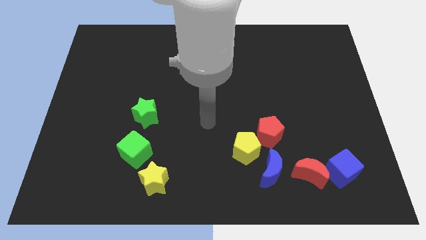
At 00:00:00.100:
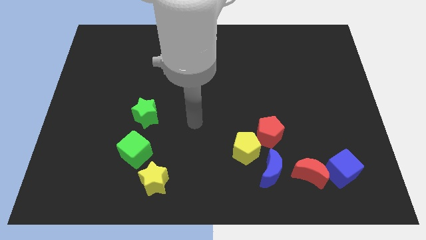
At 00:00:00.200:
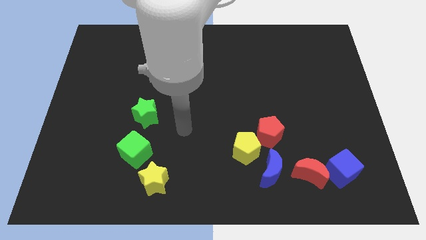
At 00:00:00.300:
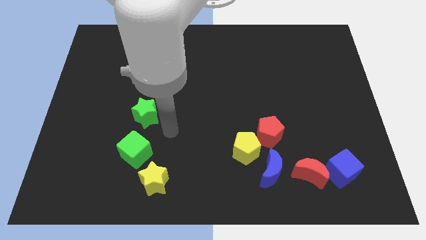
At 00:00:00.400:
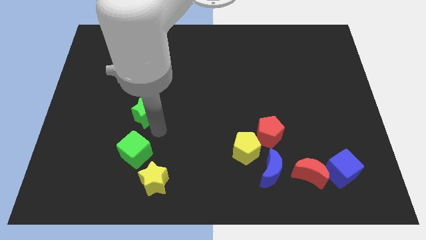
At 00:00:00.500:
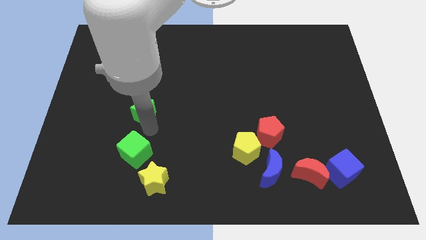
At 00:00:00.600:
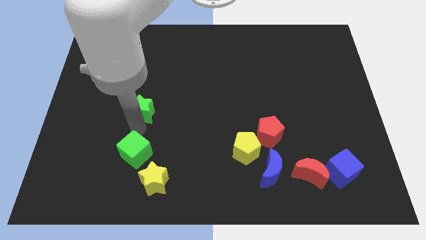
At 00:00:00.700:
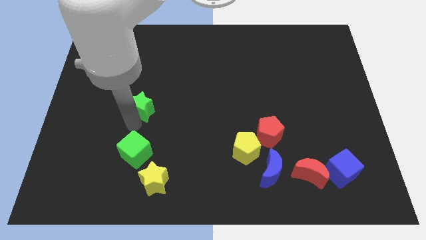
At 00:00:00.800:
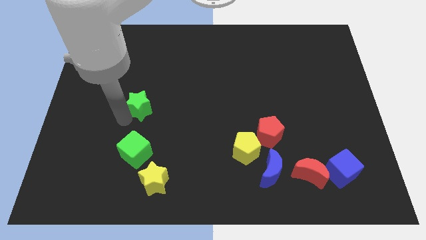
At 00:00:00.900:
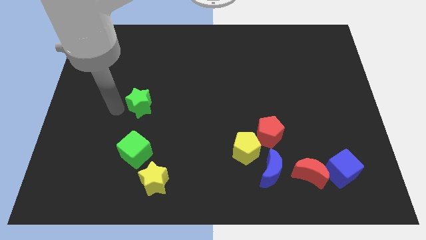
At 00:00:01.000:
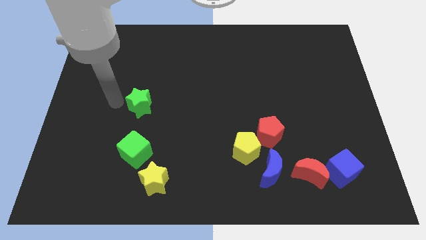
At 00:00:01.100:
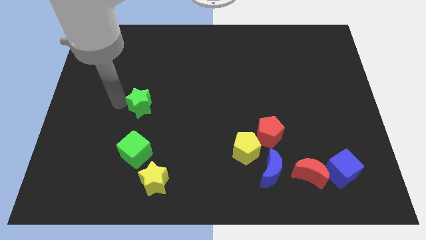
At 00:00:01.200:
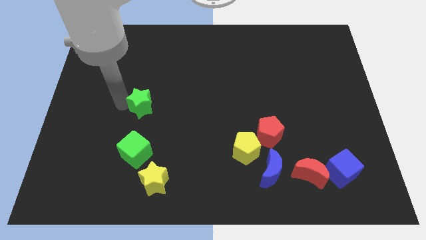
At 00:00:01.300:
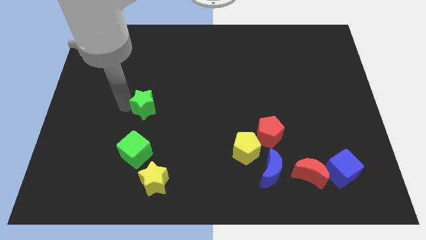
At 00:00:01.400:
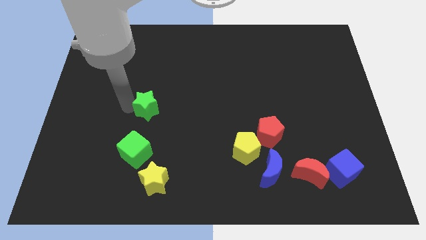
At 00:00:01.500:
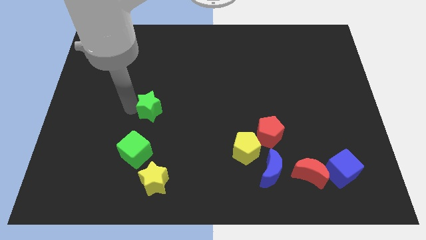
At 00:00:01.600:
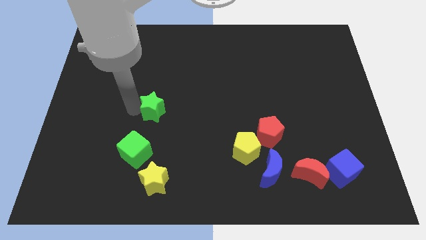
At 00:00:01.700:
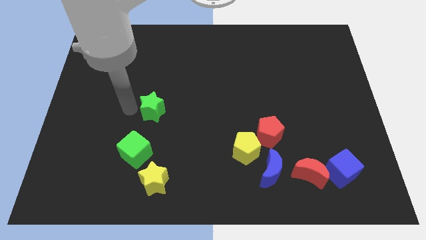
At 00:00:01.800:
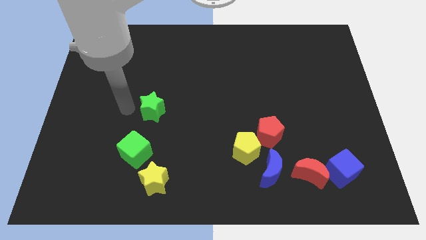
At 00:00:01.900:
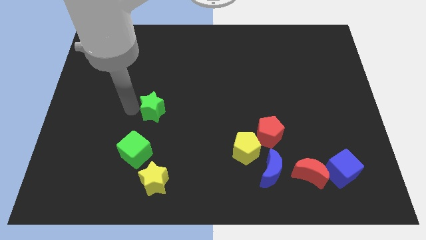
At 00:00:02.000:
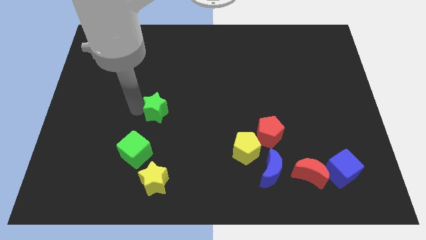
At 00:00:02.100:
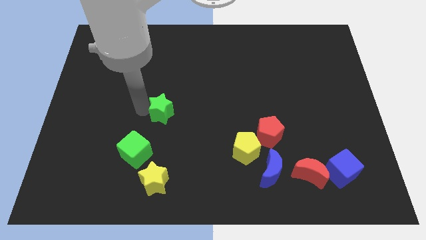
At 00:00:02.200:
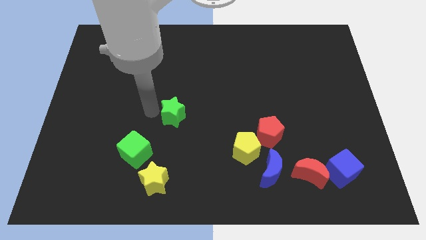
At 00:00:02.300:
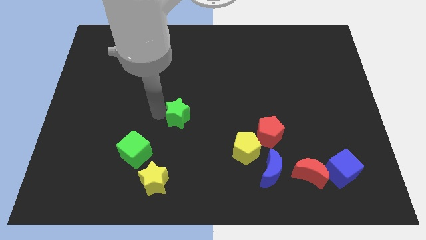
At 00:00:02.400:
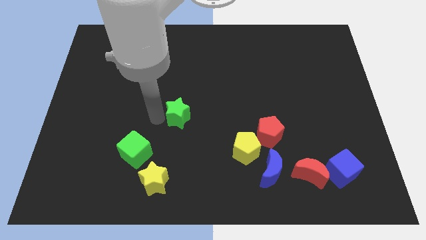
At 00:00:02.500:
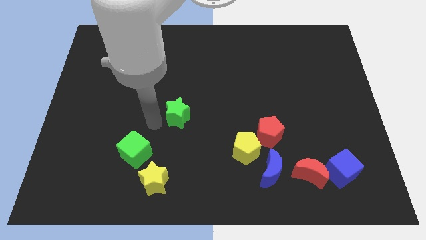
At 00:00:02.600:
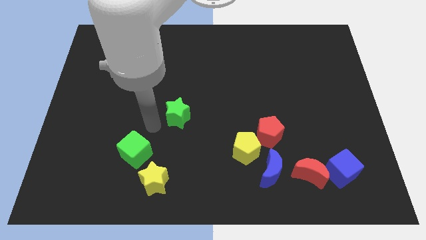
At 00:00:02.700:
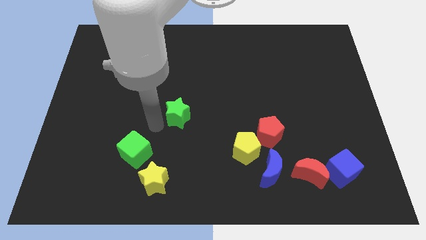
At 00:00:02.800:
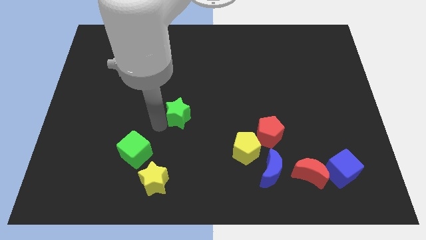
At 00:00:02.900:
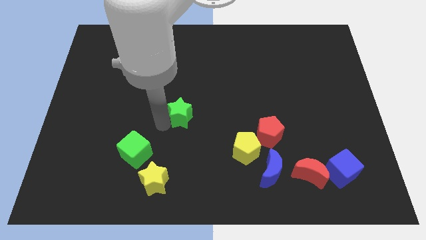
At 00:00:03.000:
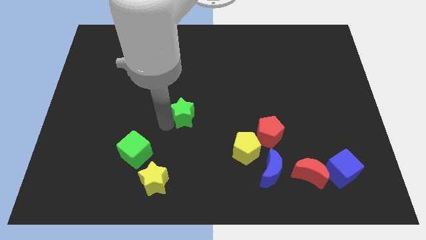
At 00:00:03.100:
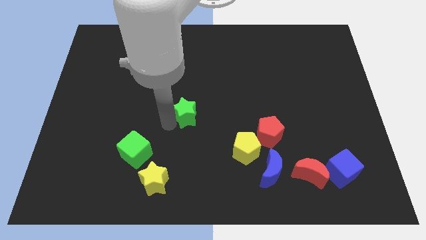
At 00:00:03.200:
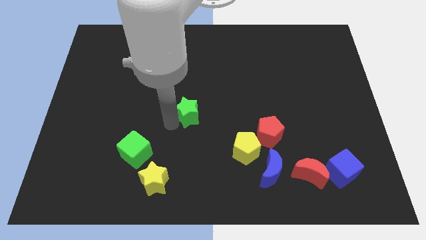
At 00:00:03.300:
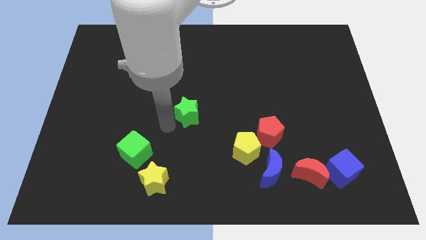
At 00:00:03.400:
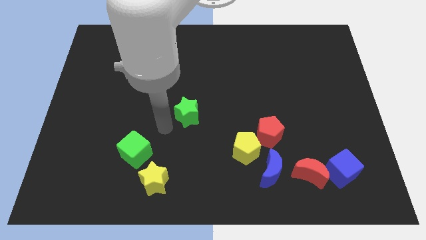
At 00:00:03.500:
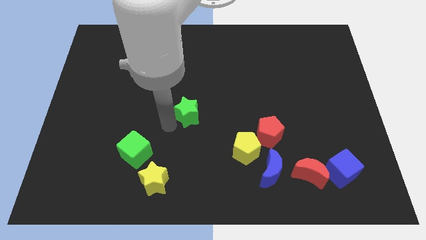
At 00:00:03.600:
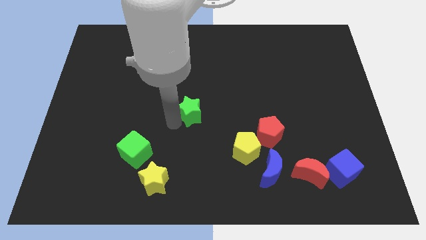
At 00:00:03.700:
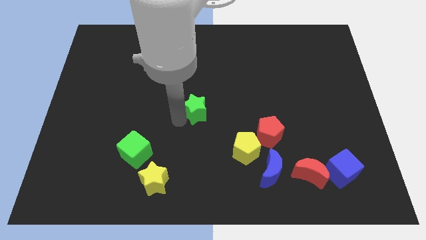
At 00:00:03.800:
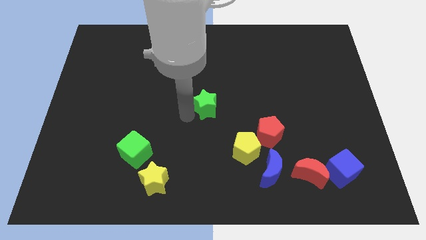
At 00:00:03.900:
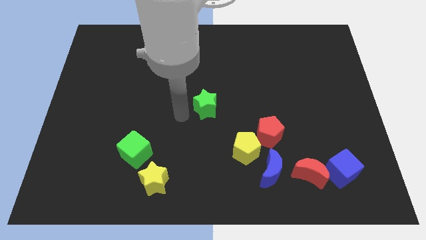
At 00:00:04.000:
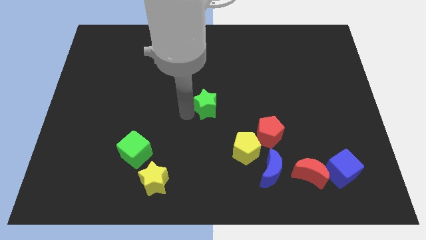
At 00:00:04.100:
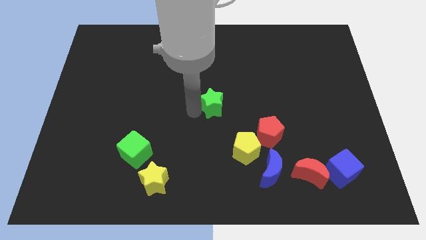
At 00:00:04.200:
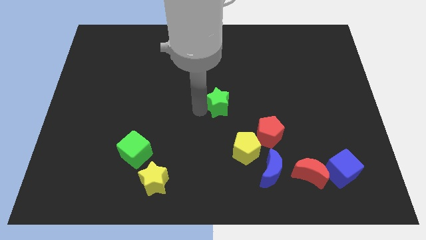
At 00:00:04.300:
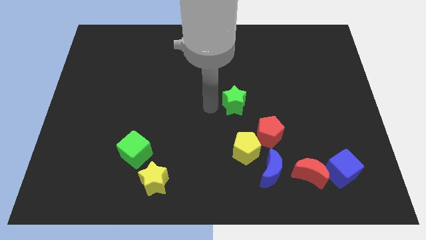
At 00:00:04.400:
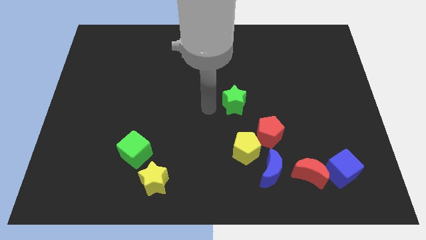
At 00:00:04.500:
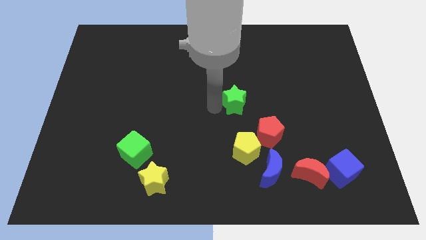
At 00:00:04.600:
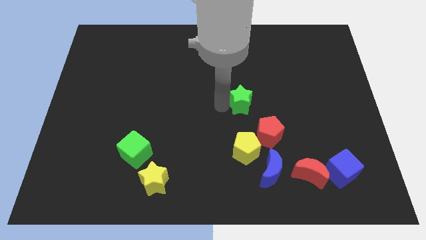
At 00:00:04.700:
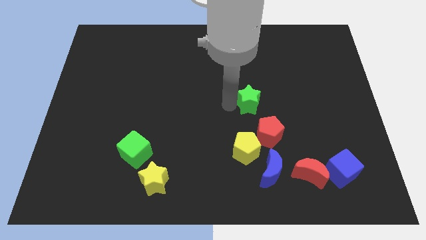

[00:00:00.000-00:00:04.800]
move the green star to the top side of the red pentagon

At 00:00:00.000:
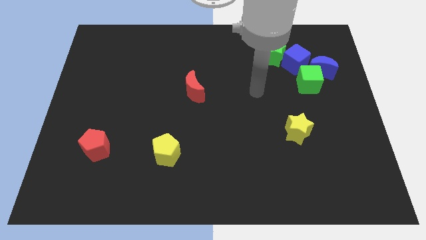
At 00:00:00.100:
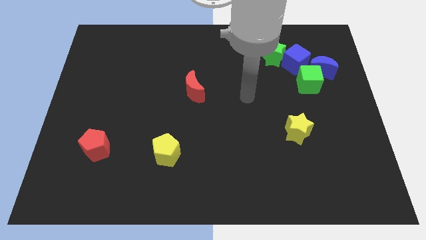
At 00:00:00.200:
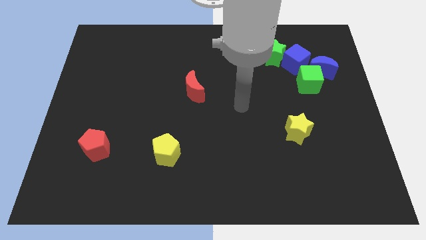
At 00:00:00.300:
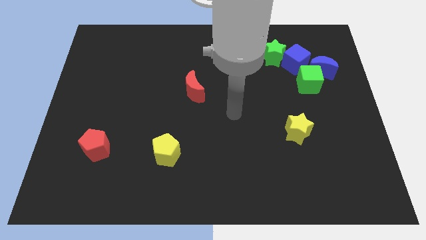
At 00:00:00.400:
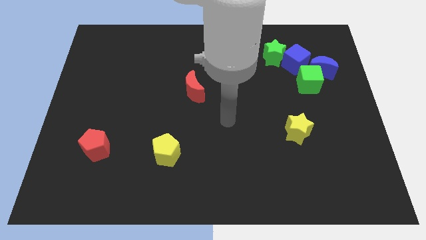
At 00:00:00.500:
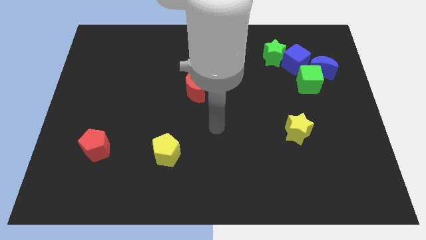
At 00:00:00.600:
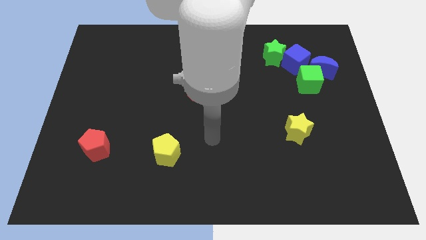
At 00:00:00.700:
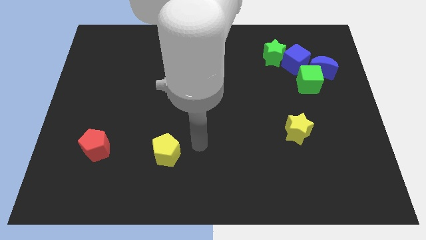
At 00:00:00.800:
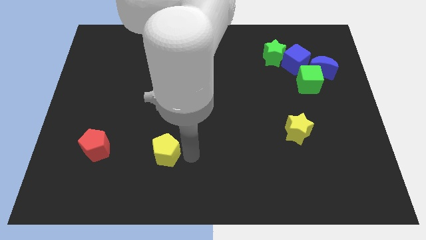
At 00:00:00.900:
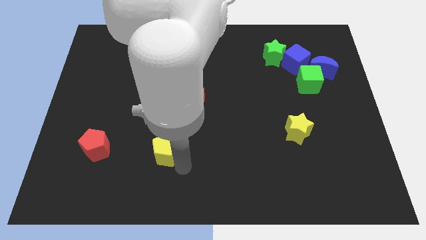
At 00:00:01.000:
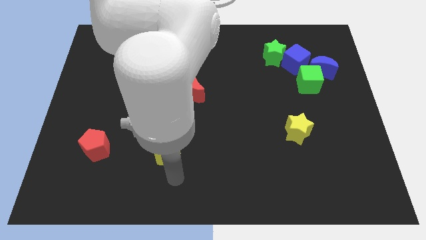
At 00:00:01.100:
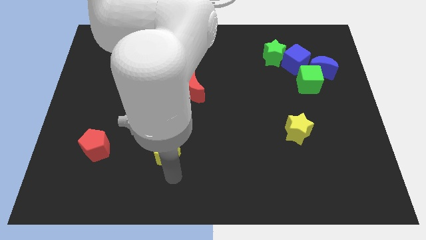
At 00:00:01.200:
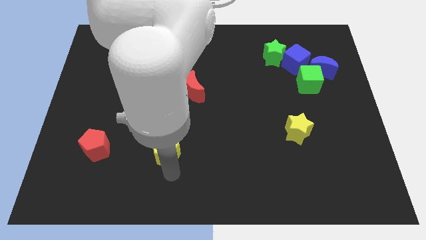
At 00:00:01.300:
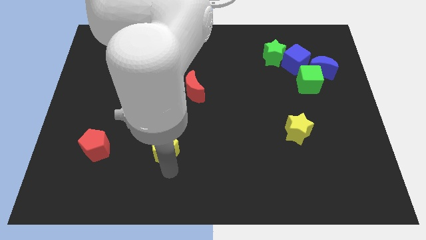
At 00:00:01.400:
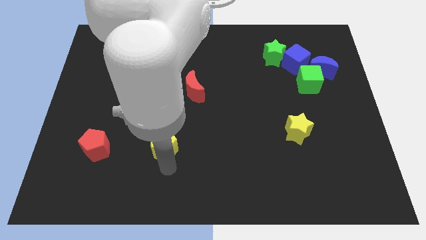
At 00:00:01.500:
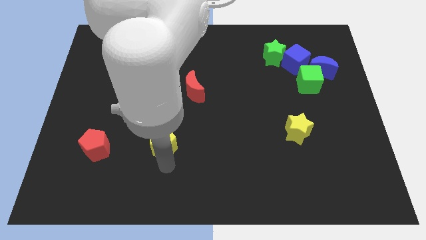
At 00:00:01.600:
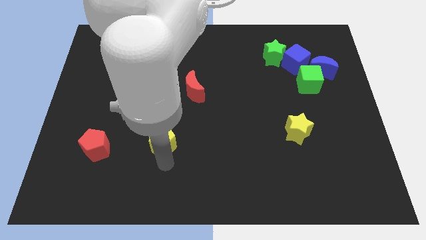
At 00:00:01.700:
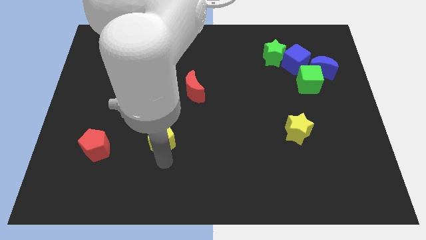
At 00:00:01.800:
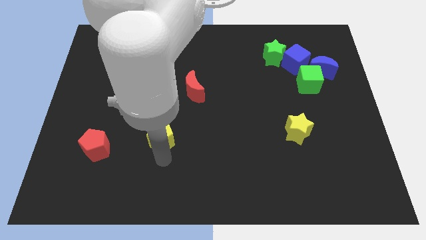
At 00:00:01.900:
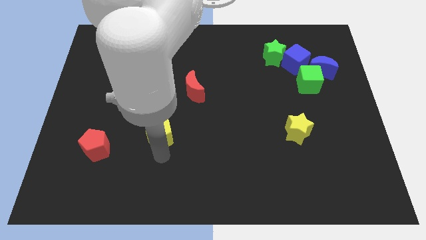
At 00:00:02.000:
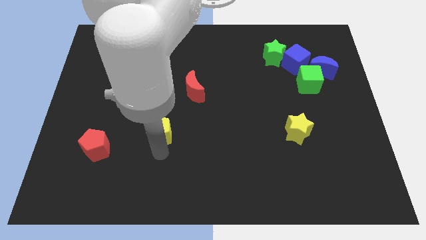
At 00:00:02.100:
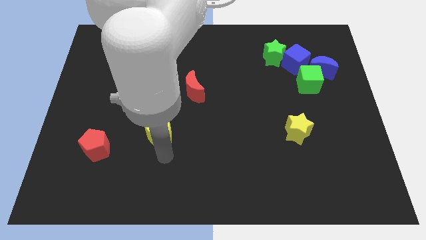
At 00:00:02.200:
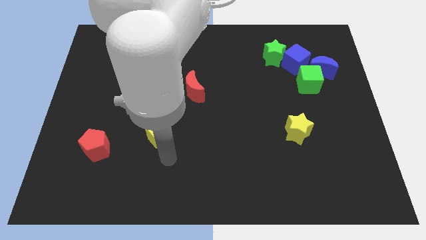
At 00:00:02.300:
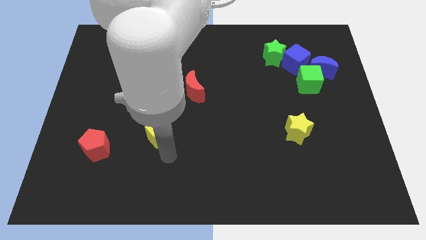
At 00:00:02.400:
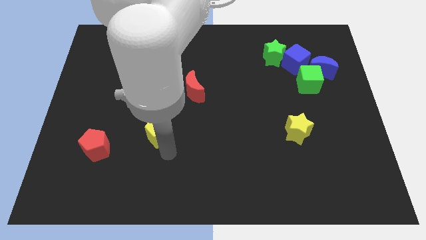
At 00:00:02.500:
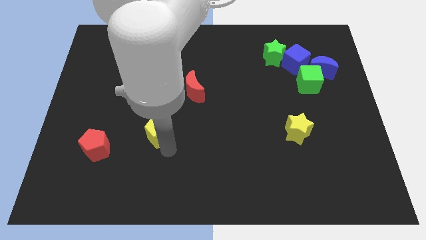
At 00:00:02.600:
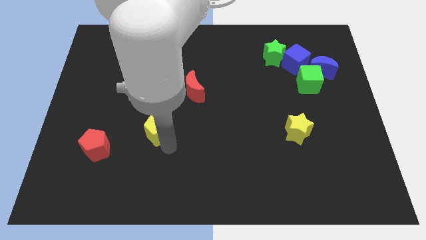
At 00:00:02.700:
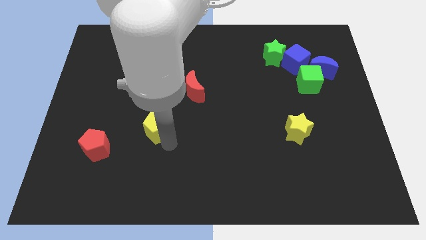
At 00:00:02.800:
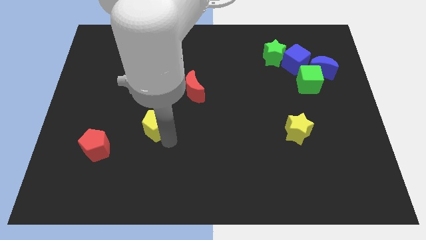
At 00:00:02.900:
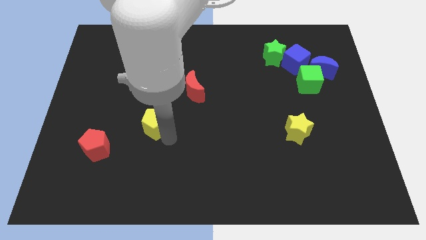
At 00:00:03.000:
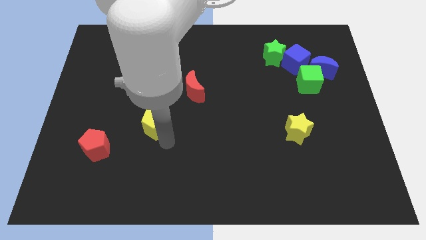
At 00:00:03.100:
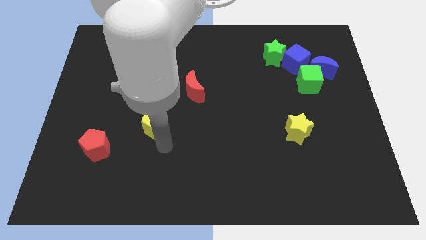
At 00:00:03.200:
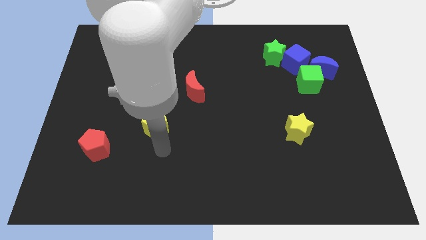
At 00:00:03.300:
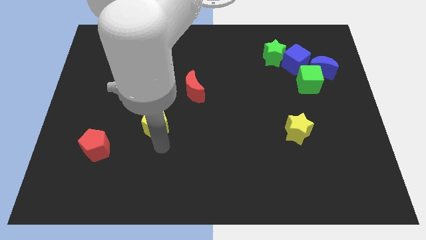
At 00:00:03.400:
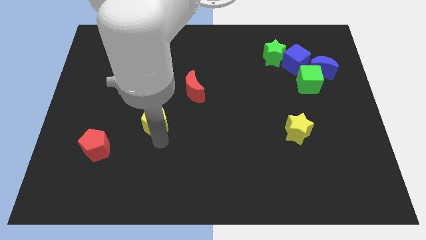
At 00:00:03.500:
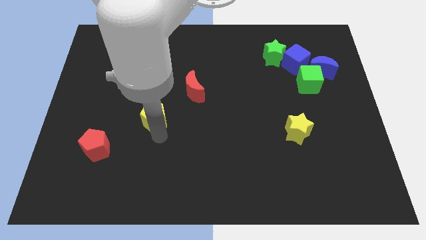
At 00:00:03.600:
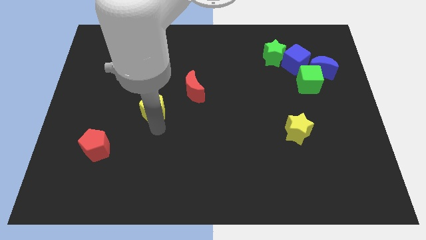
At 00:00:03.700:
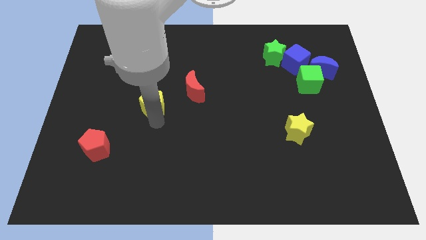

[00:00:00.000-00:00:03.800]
push the yellow pentagon to the left of the red moon
